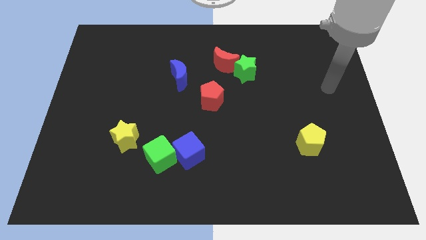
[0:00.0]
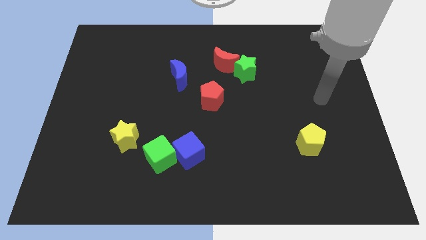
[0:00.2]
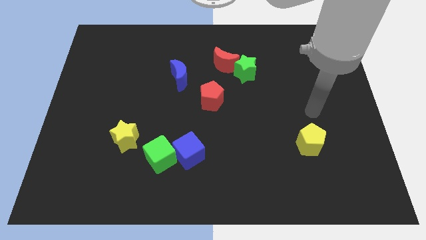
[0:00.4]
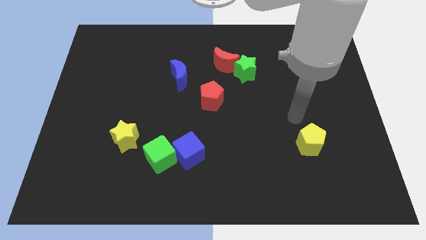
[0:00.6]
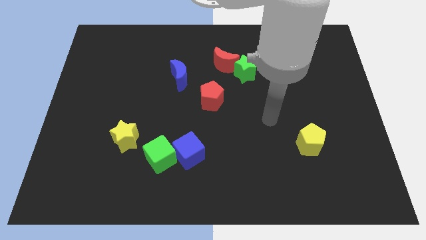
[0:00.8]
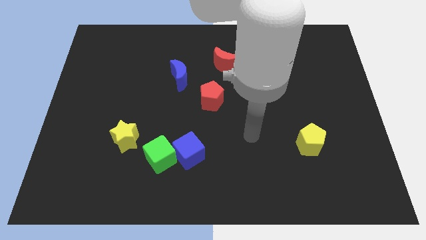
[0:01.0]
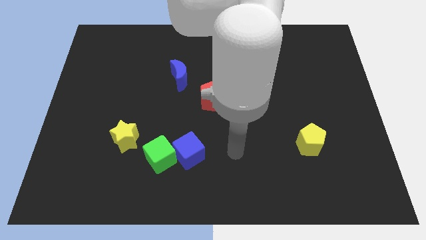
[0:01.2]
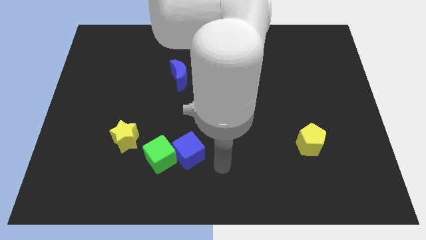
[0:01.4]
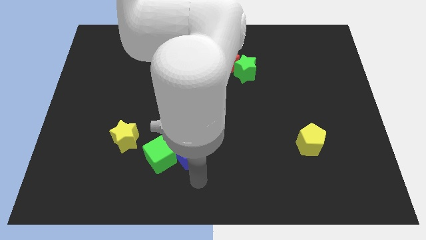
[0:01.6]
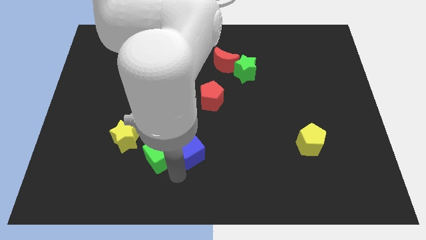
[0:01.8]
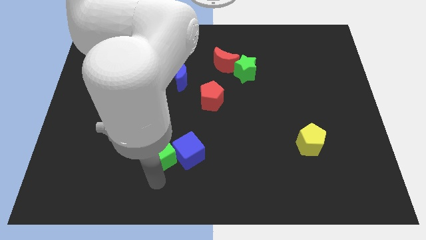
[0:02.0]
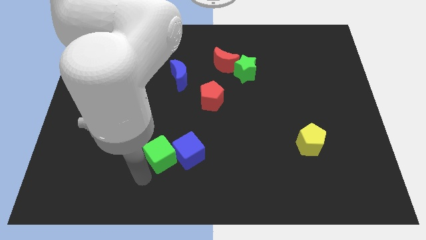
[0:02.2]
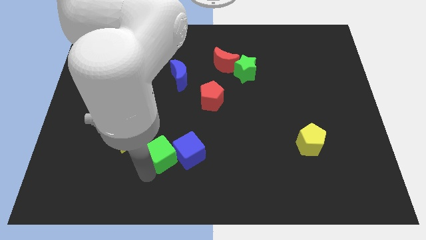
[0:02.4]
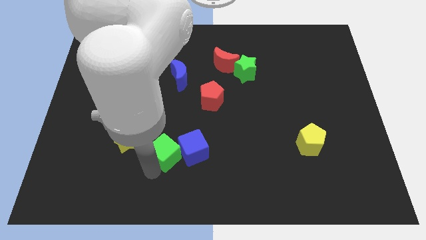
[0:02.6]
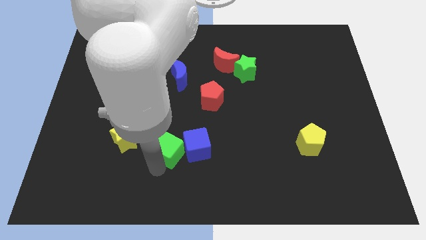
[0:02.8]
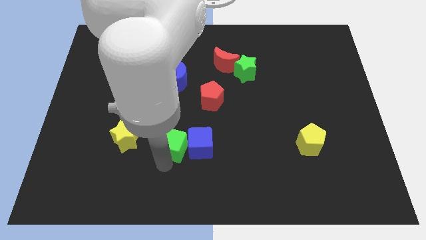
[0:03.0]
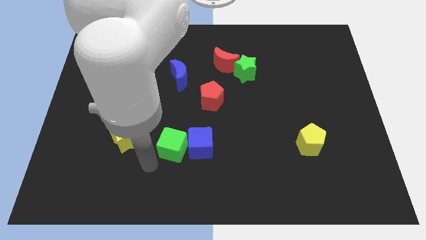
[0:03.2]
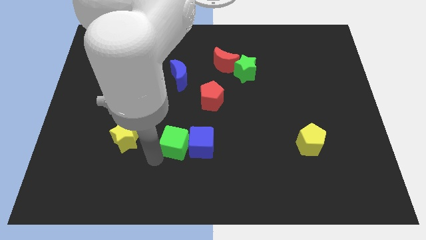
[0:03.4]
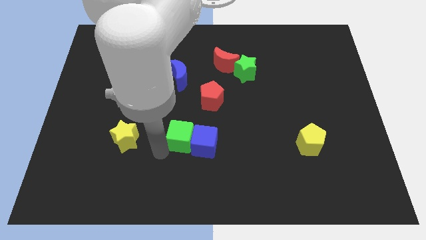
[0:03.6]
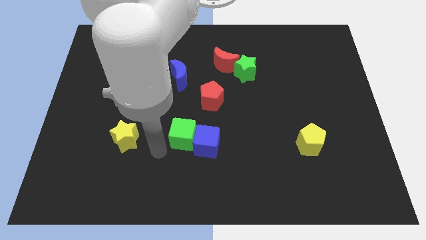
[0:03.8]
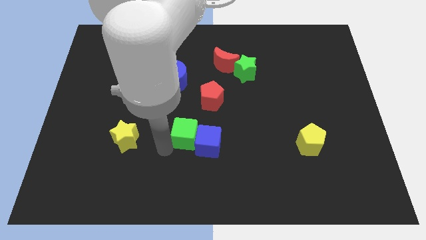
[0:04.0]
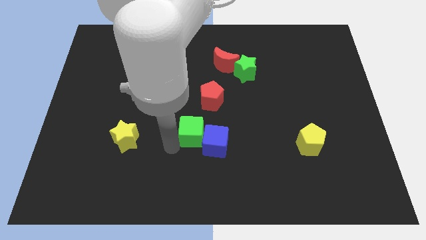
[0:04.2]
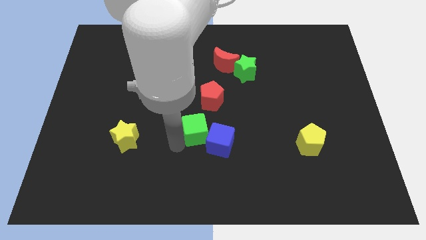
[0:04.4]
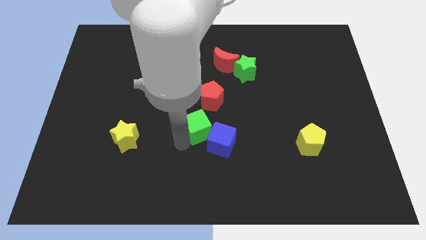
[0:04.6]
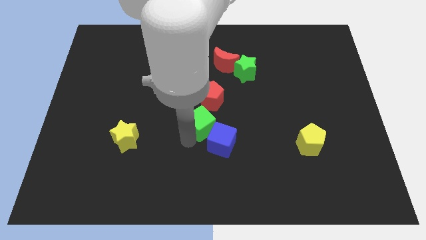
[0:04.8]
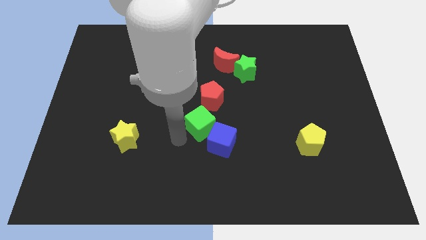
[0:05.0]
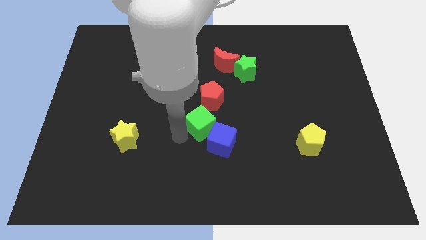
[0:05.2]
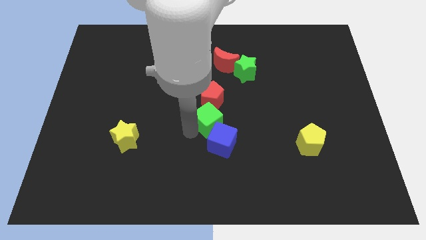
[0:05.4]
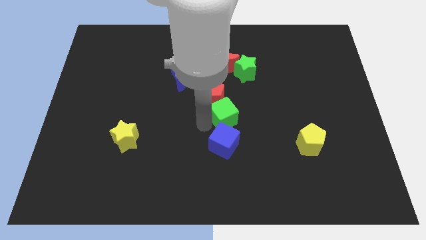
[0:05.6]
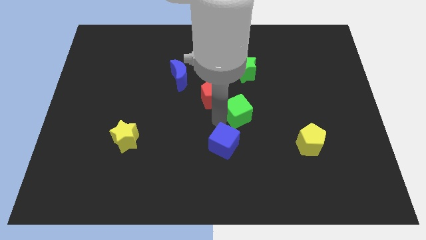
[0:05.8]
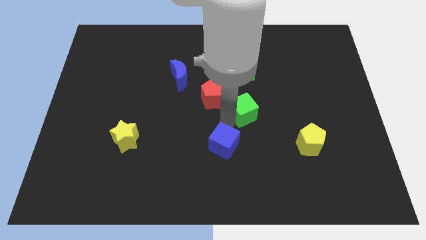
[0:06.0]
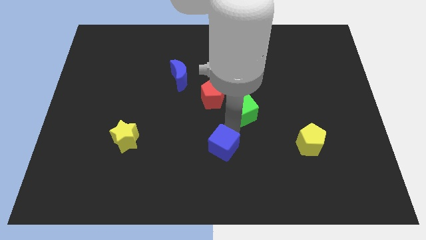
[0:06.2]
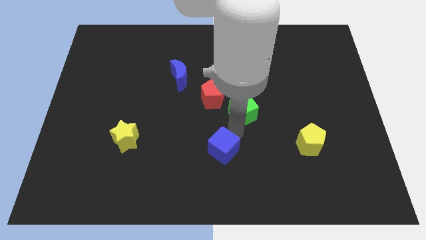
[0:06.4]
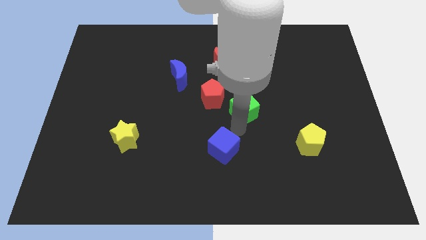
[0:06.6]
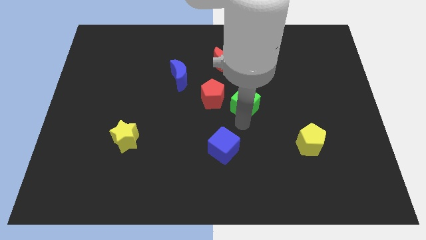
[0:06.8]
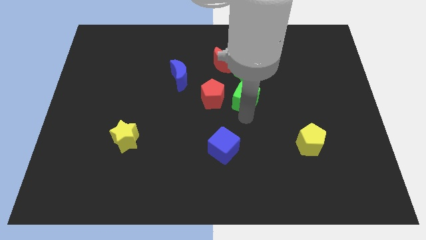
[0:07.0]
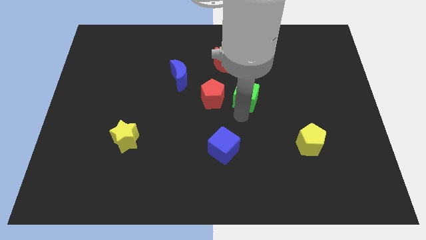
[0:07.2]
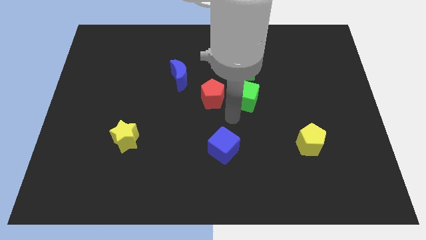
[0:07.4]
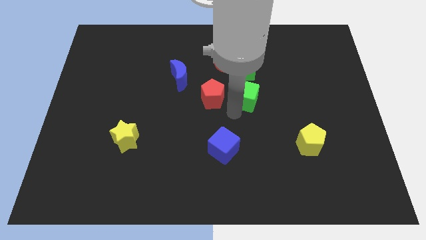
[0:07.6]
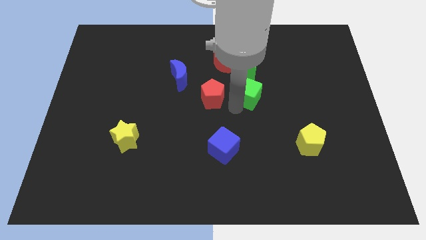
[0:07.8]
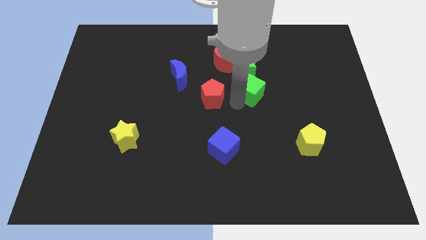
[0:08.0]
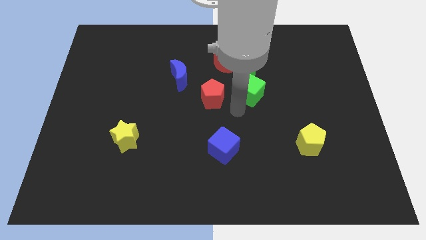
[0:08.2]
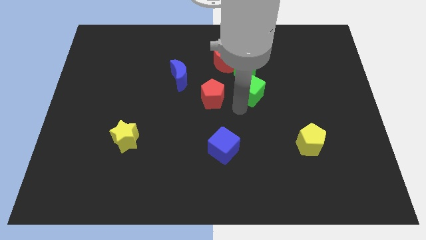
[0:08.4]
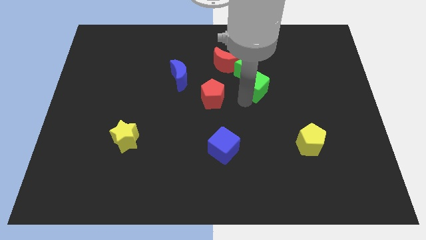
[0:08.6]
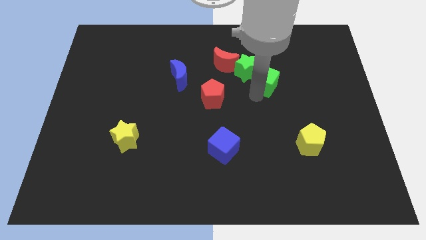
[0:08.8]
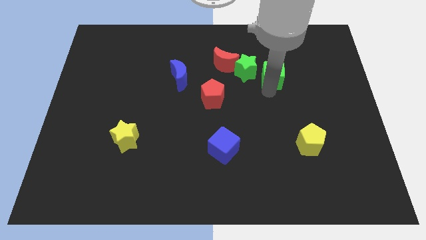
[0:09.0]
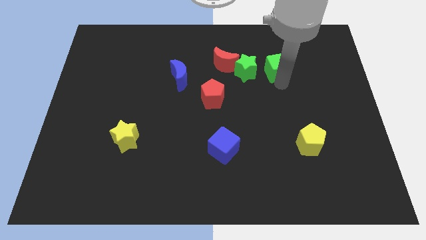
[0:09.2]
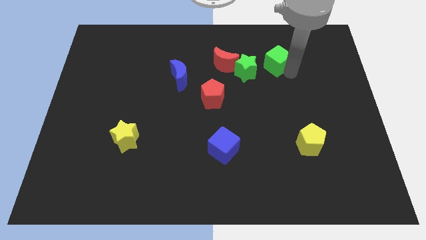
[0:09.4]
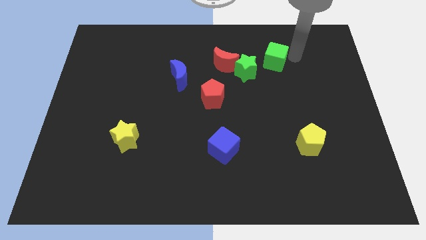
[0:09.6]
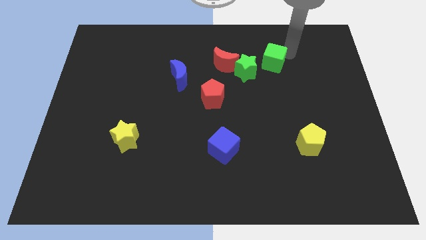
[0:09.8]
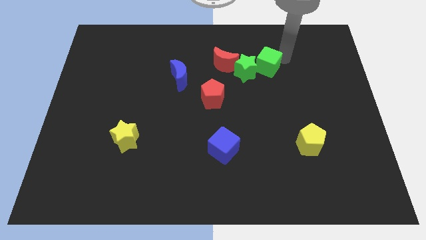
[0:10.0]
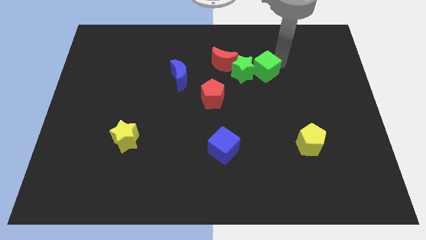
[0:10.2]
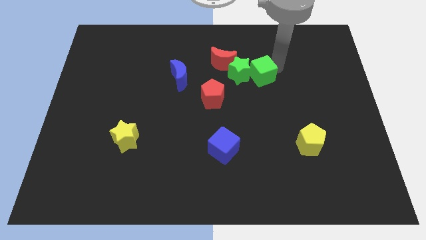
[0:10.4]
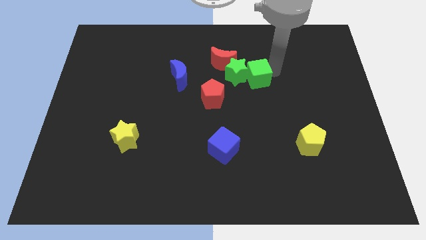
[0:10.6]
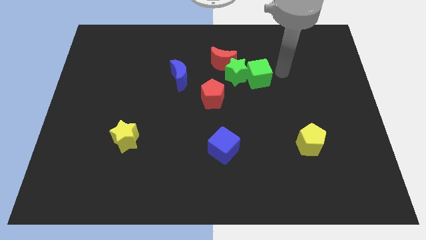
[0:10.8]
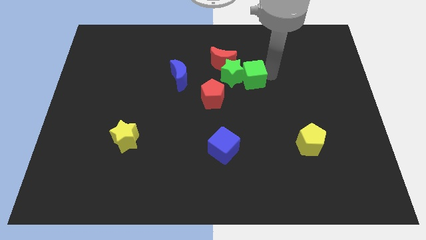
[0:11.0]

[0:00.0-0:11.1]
put the green cube diagonally up and to the right of the red pentagon
